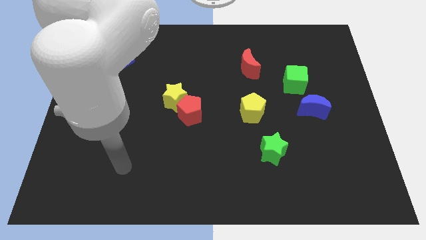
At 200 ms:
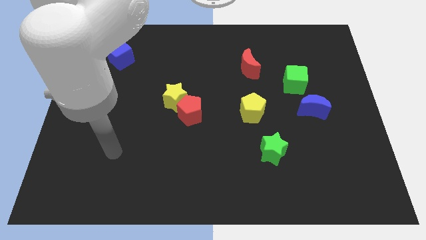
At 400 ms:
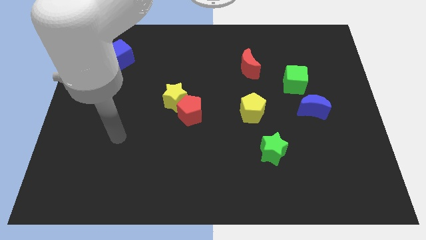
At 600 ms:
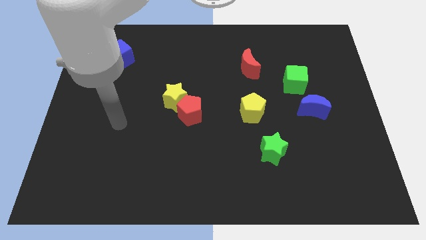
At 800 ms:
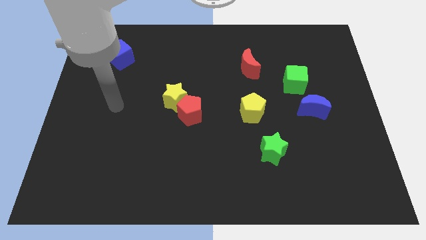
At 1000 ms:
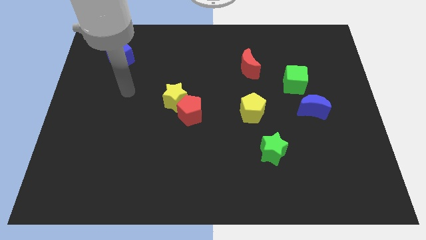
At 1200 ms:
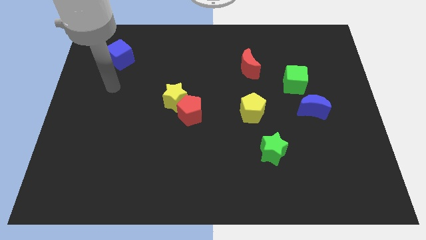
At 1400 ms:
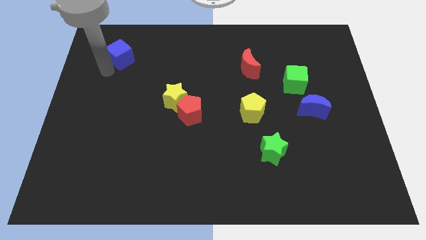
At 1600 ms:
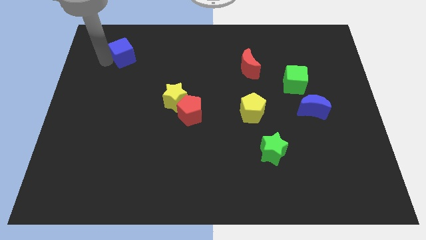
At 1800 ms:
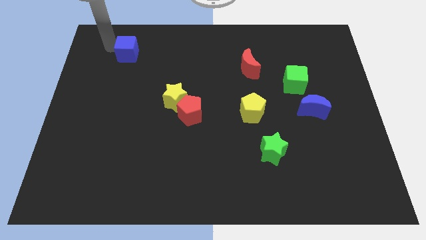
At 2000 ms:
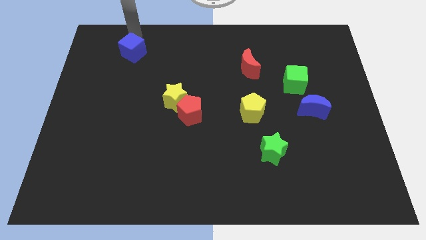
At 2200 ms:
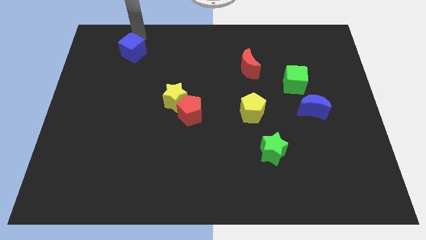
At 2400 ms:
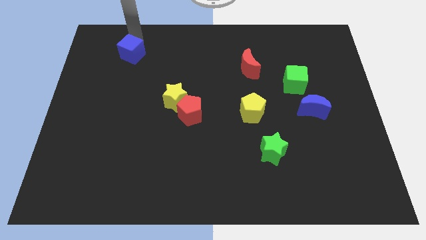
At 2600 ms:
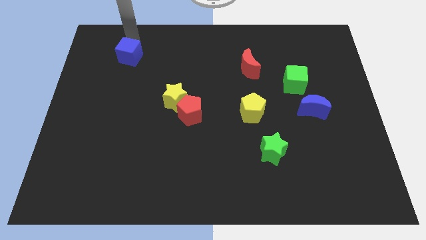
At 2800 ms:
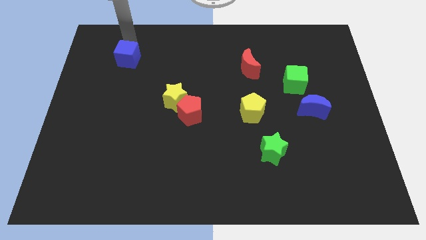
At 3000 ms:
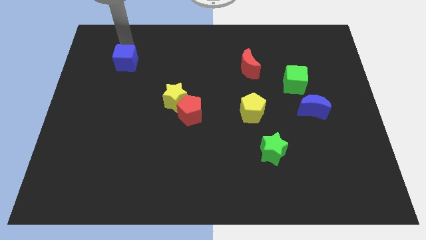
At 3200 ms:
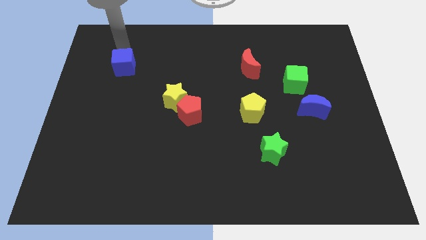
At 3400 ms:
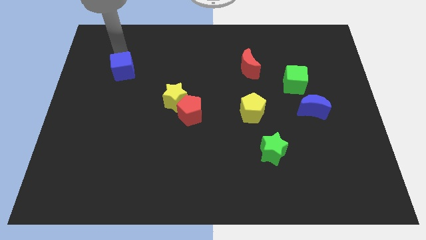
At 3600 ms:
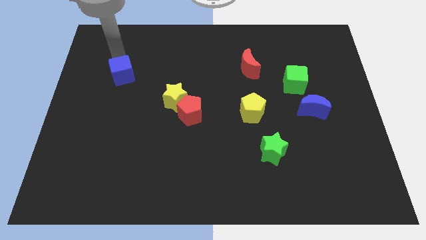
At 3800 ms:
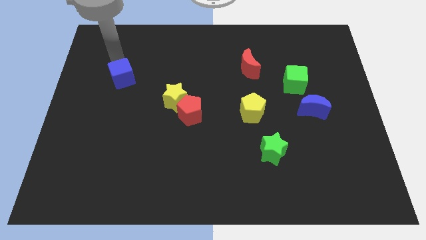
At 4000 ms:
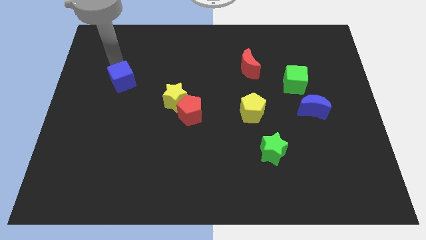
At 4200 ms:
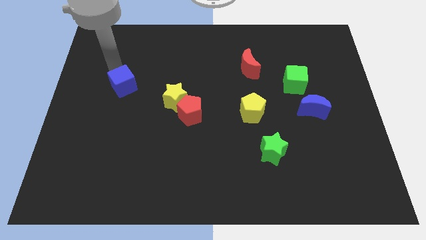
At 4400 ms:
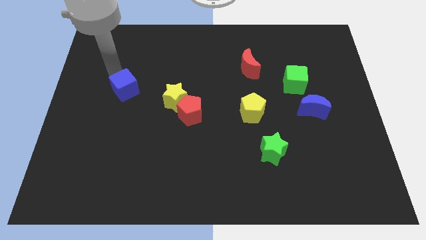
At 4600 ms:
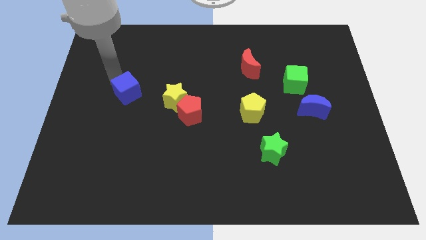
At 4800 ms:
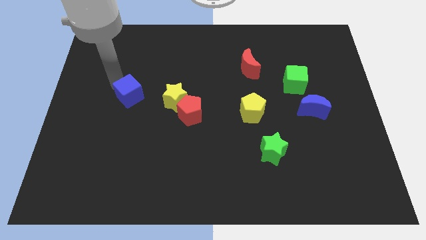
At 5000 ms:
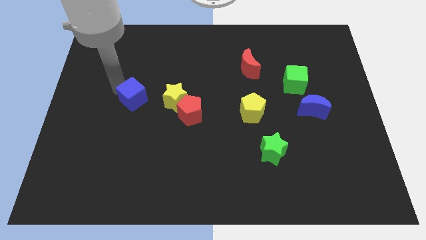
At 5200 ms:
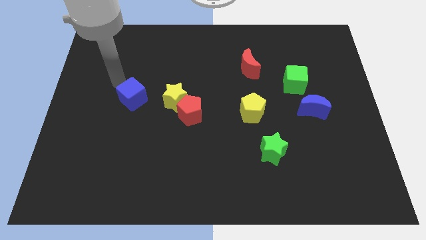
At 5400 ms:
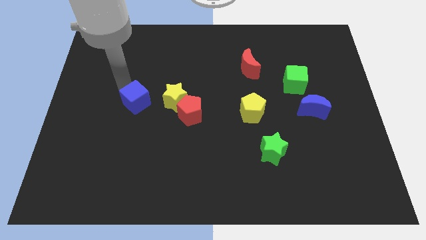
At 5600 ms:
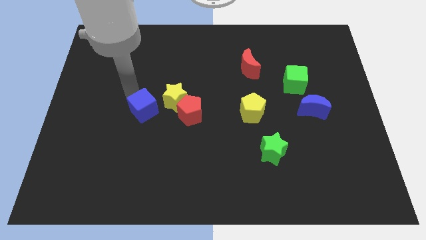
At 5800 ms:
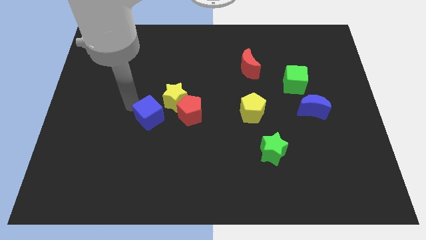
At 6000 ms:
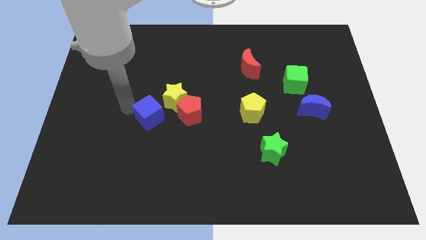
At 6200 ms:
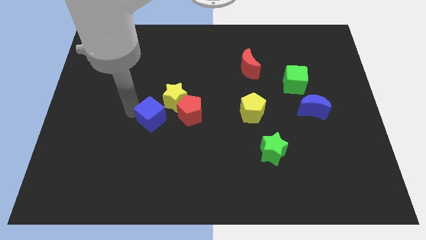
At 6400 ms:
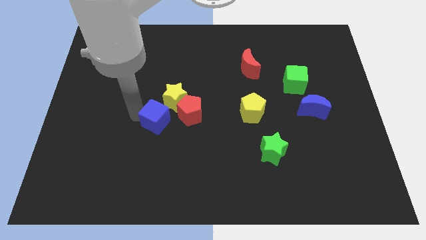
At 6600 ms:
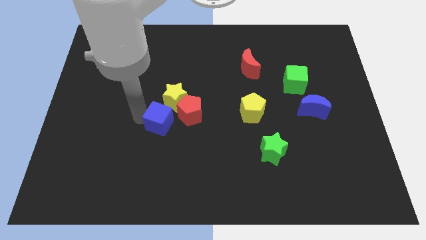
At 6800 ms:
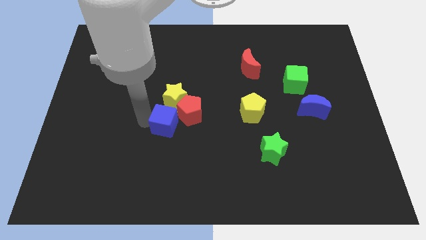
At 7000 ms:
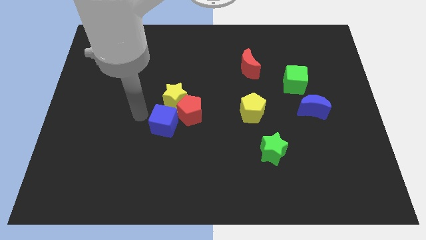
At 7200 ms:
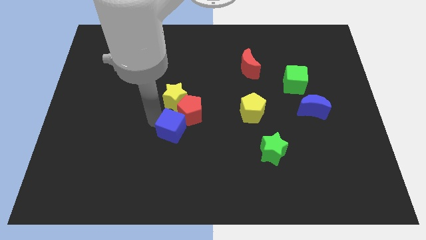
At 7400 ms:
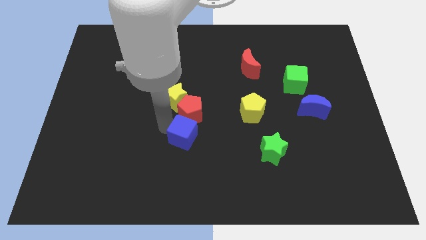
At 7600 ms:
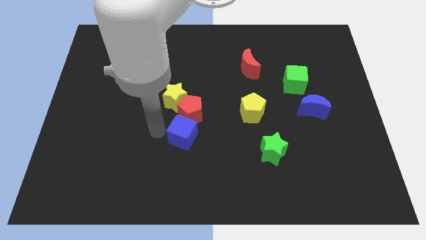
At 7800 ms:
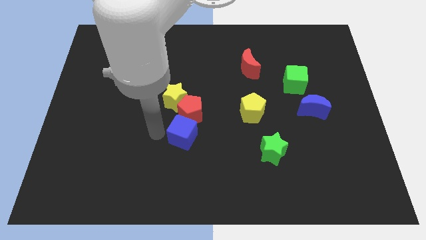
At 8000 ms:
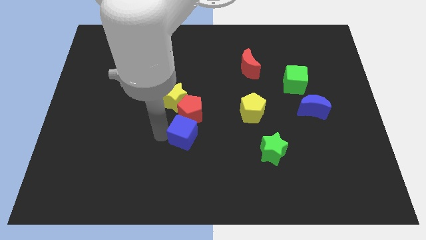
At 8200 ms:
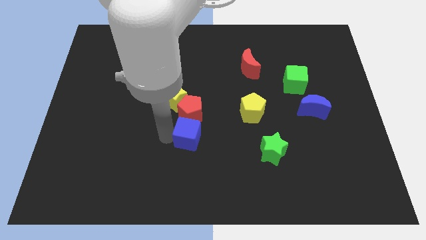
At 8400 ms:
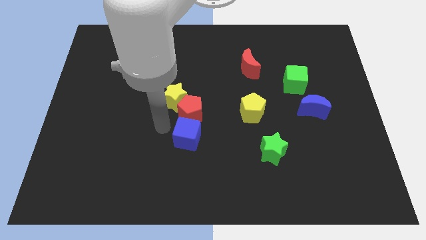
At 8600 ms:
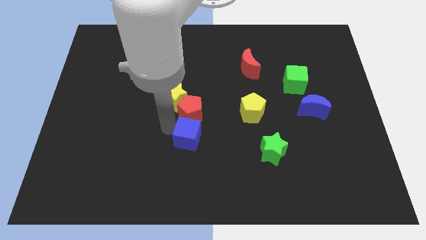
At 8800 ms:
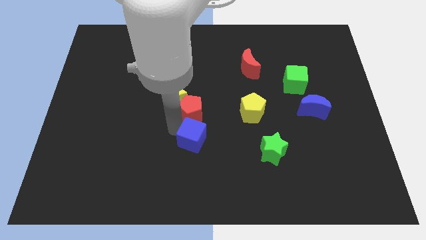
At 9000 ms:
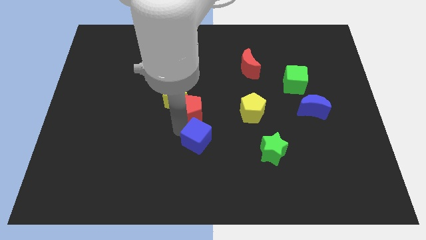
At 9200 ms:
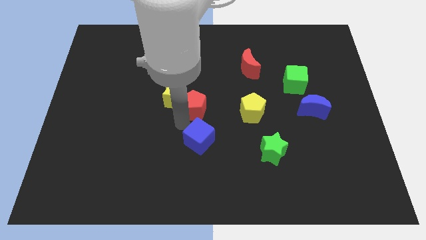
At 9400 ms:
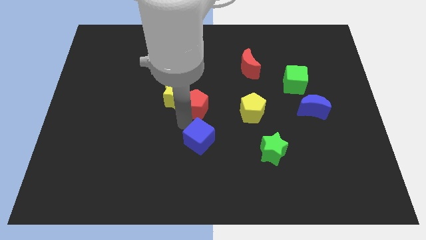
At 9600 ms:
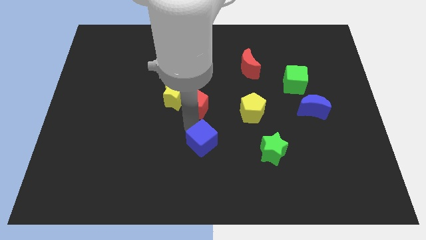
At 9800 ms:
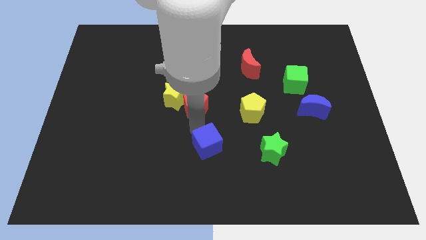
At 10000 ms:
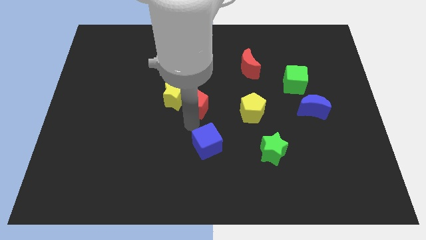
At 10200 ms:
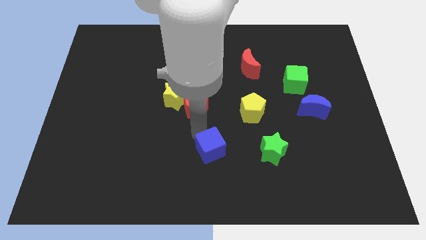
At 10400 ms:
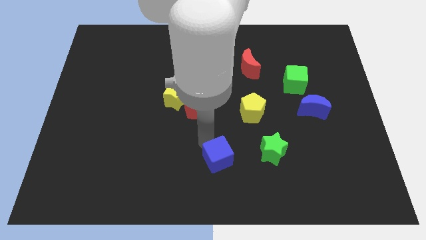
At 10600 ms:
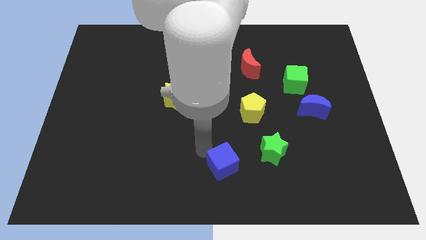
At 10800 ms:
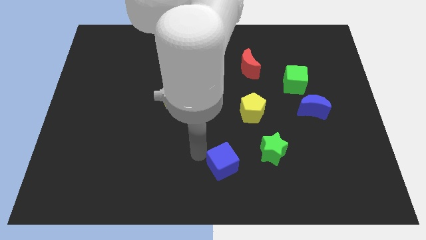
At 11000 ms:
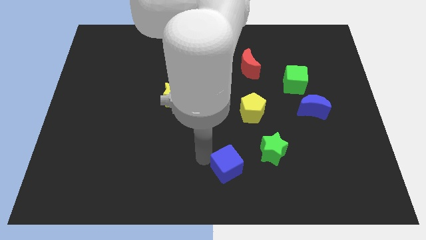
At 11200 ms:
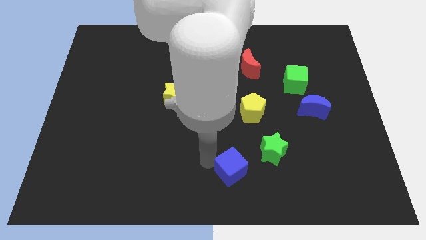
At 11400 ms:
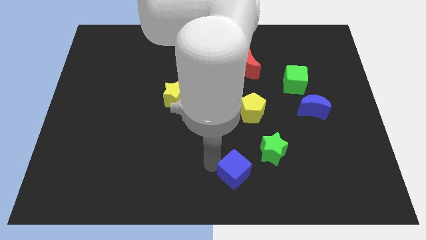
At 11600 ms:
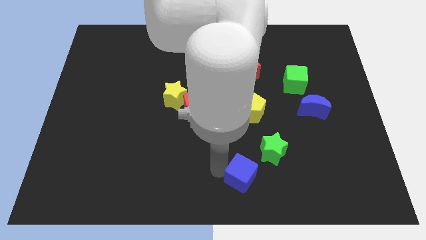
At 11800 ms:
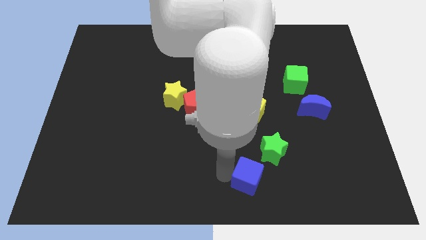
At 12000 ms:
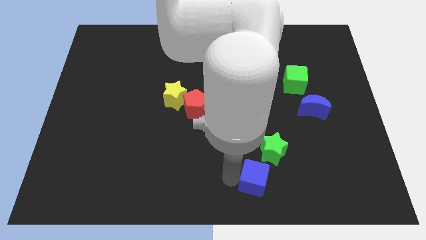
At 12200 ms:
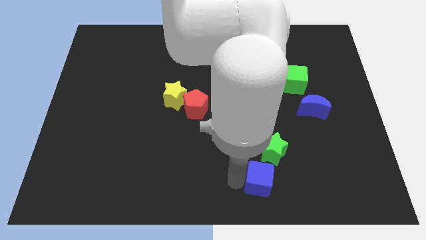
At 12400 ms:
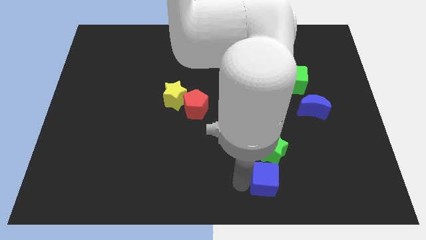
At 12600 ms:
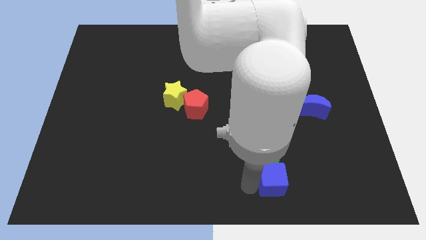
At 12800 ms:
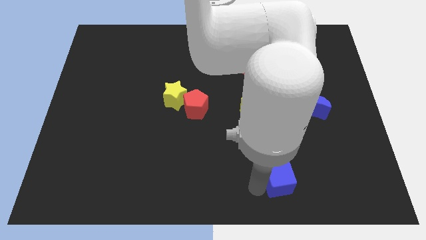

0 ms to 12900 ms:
move the blue cube to the bottom right of the green star

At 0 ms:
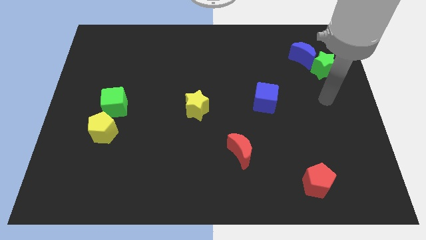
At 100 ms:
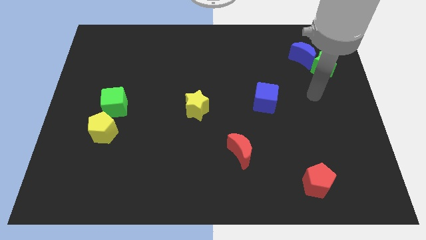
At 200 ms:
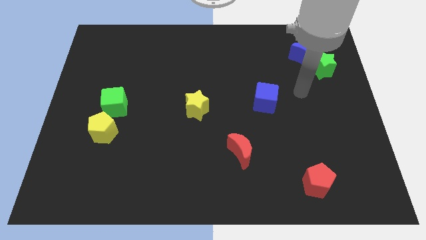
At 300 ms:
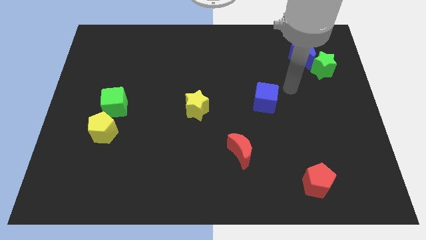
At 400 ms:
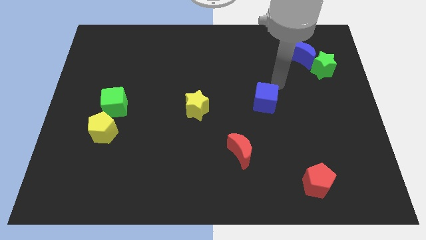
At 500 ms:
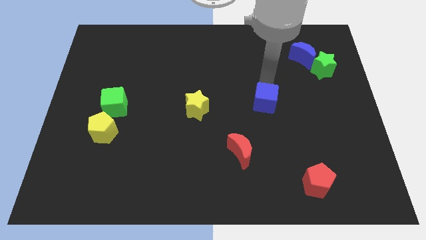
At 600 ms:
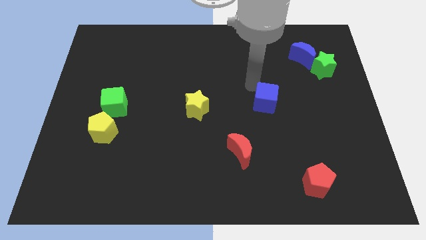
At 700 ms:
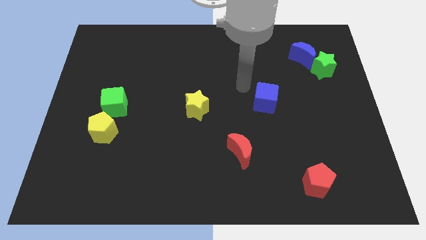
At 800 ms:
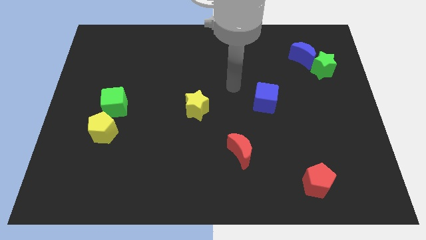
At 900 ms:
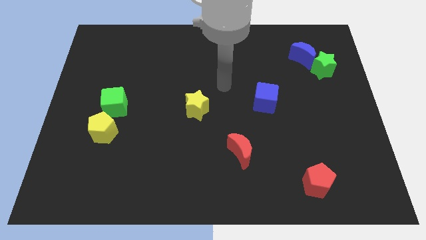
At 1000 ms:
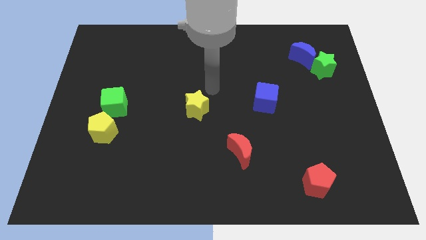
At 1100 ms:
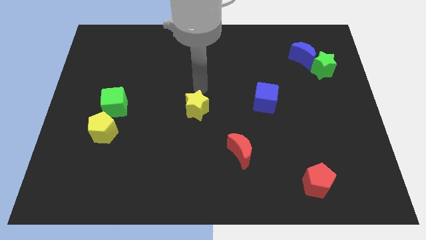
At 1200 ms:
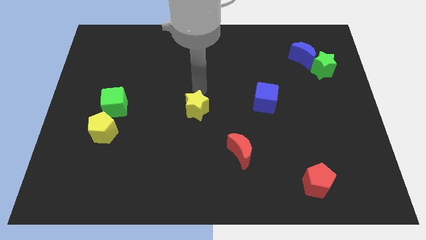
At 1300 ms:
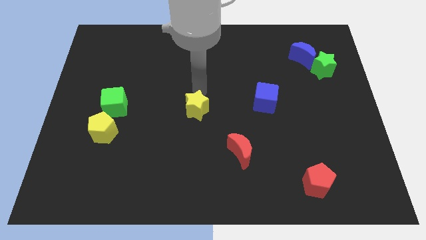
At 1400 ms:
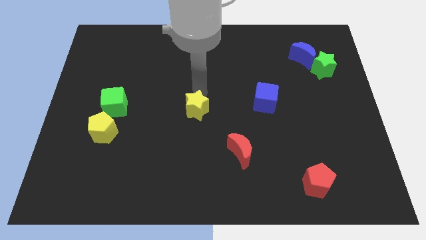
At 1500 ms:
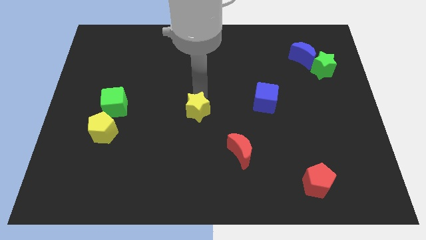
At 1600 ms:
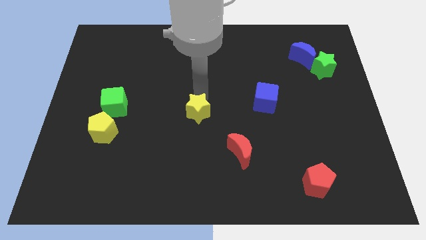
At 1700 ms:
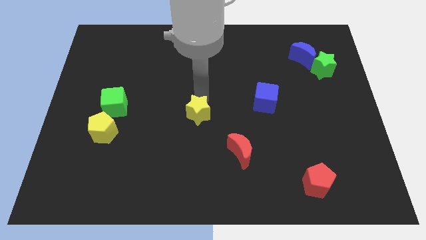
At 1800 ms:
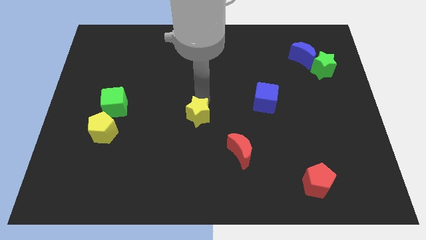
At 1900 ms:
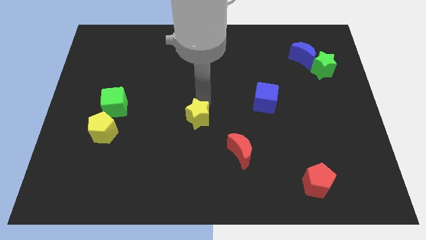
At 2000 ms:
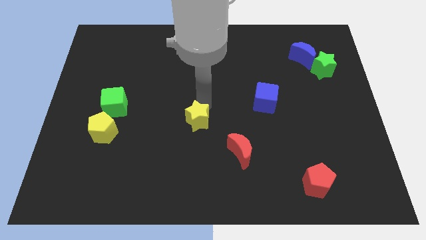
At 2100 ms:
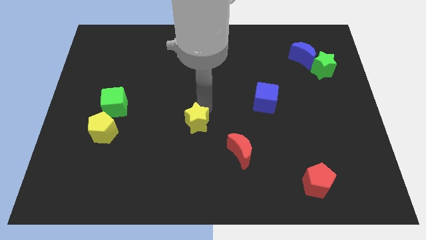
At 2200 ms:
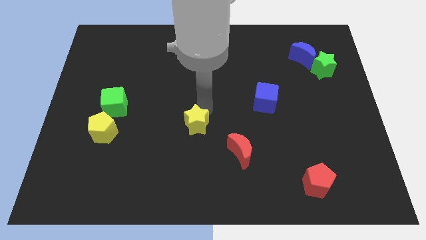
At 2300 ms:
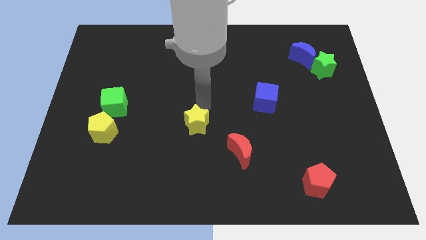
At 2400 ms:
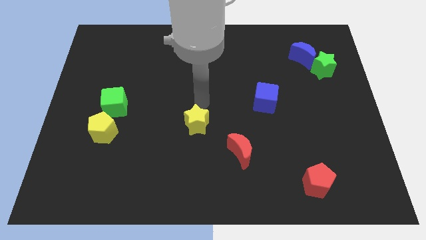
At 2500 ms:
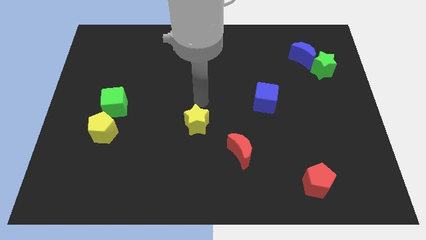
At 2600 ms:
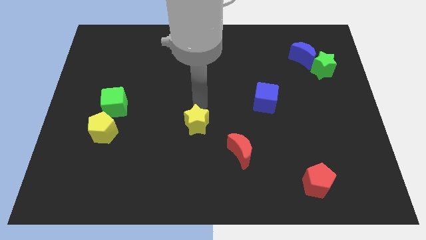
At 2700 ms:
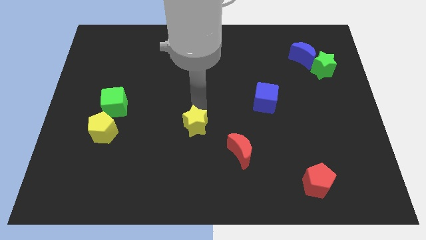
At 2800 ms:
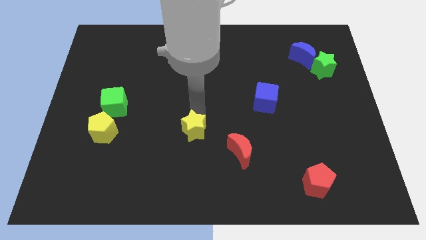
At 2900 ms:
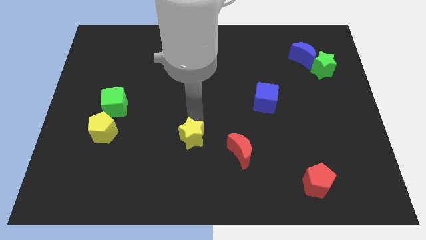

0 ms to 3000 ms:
push the yellow star just left of the red moon
